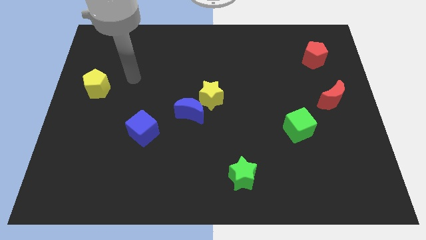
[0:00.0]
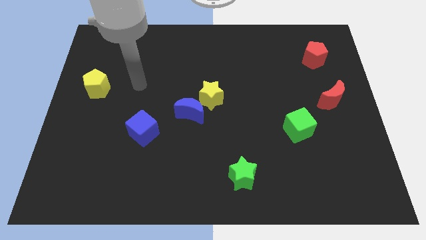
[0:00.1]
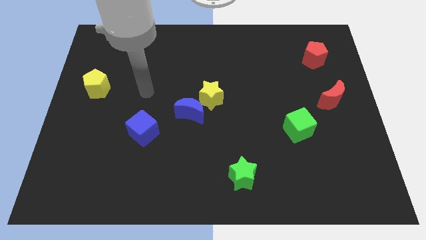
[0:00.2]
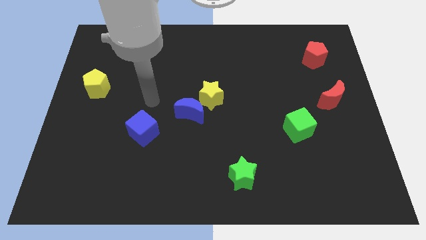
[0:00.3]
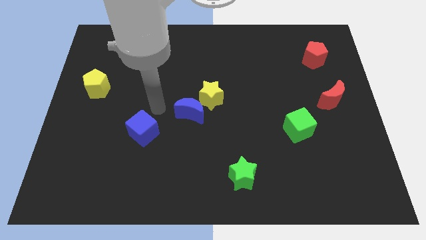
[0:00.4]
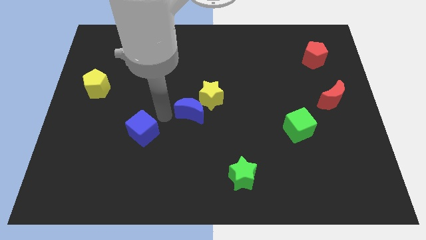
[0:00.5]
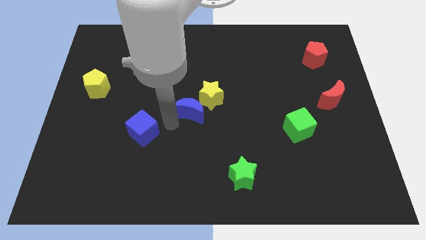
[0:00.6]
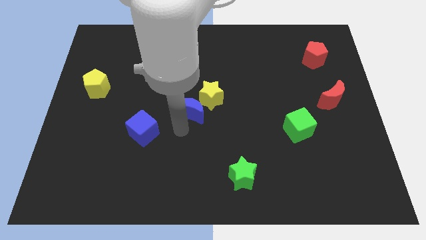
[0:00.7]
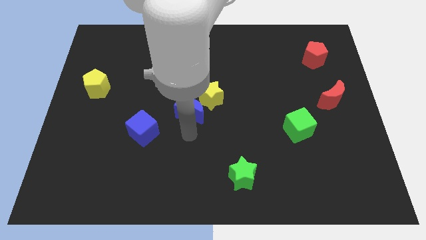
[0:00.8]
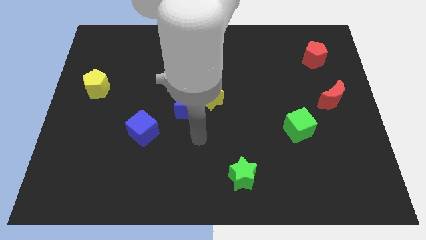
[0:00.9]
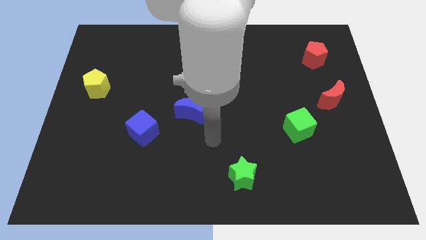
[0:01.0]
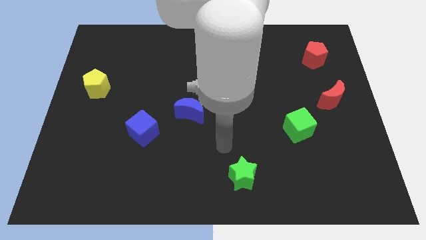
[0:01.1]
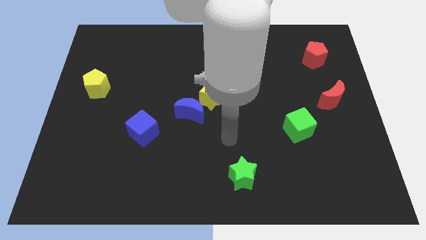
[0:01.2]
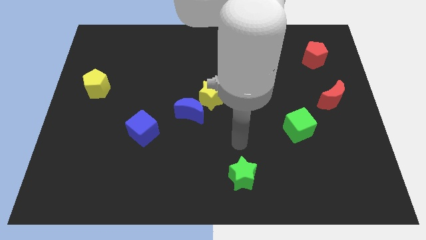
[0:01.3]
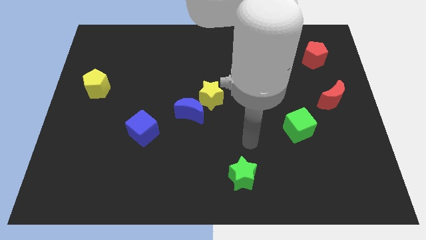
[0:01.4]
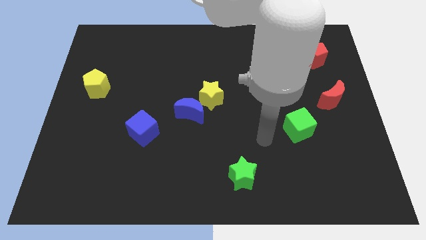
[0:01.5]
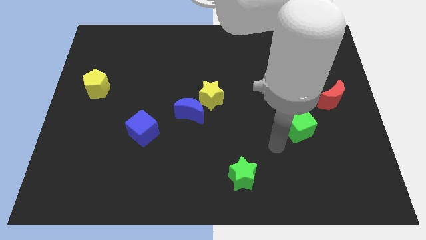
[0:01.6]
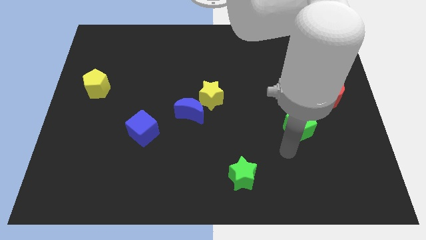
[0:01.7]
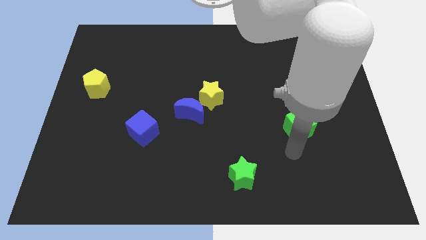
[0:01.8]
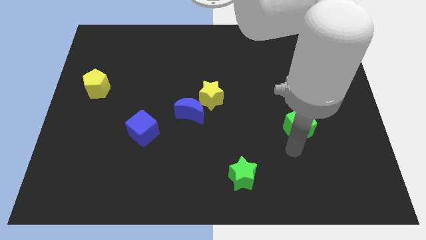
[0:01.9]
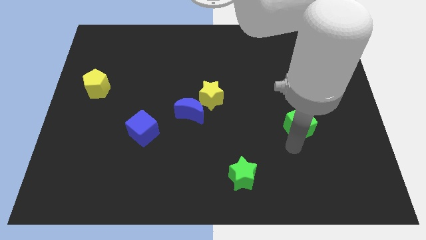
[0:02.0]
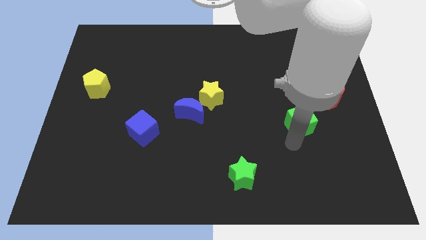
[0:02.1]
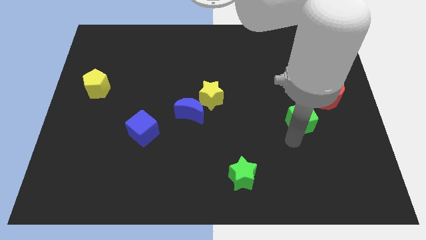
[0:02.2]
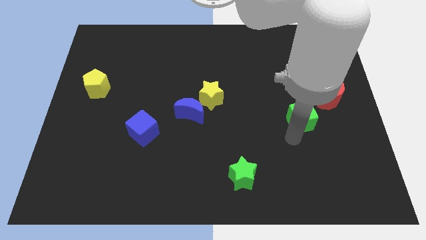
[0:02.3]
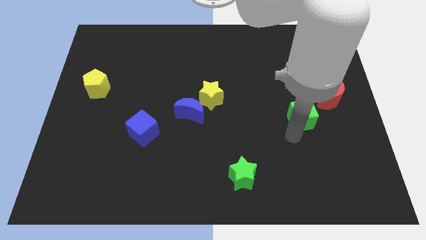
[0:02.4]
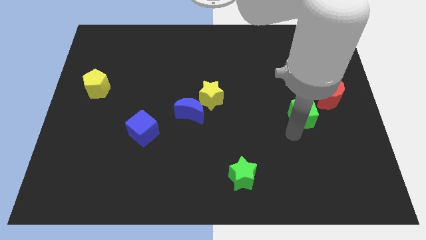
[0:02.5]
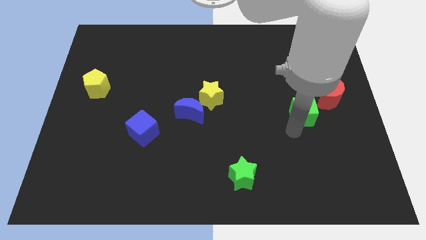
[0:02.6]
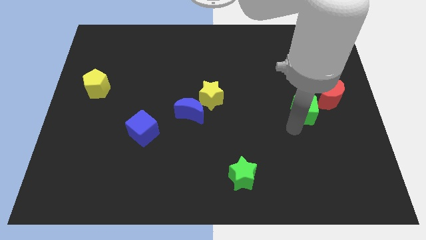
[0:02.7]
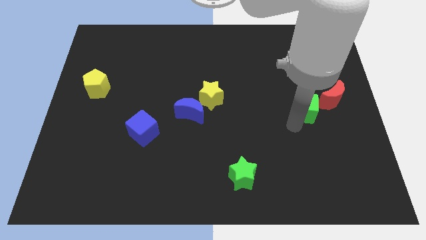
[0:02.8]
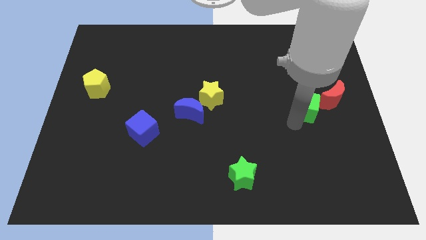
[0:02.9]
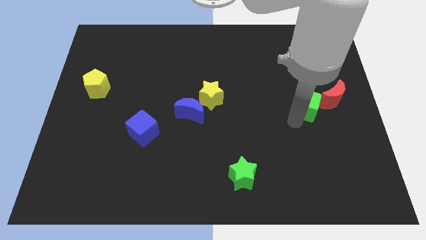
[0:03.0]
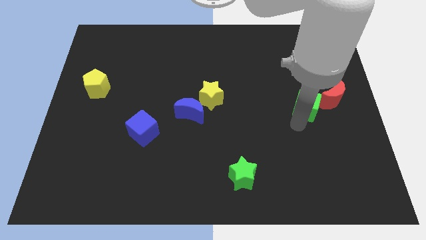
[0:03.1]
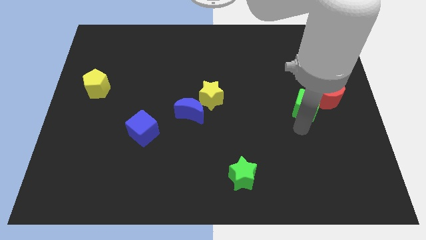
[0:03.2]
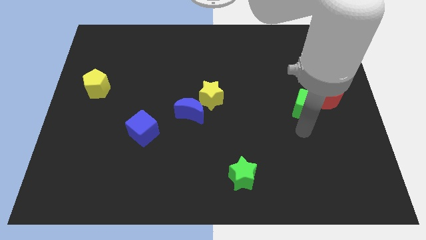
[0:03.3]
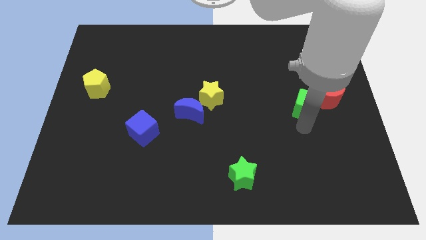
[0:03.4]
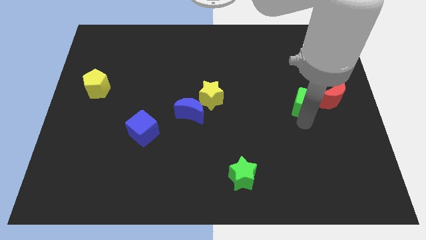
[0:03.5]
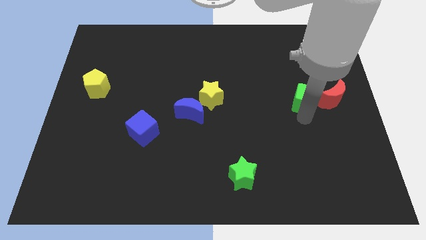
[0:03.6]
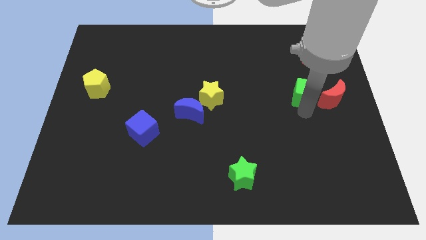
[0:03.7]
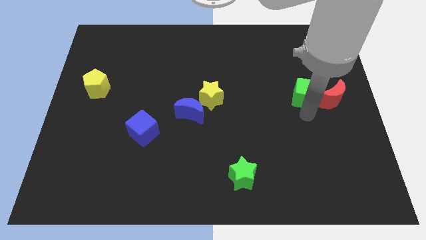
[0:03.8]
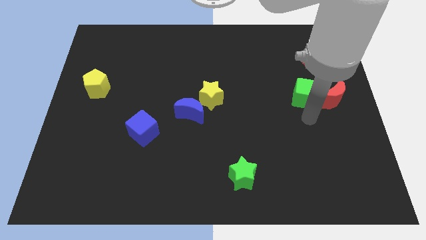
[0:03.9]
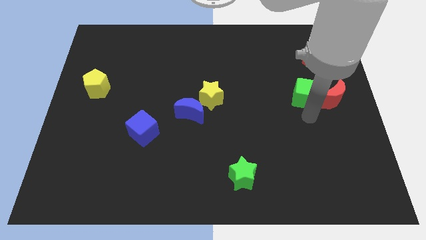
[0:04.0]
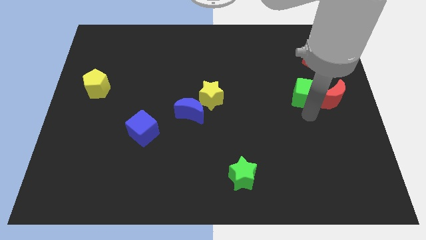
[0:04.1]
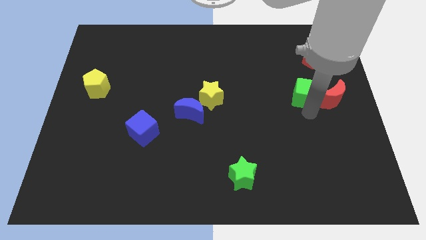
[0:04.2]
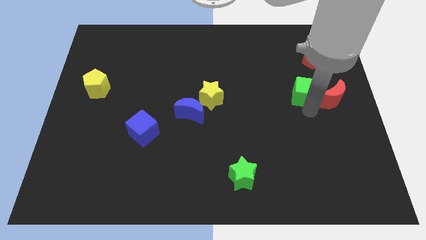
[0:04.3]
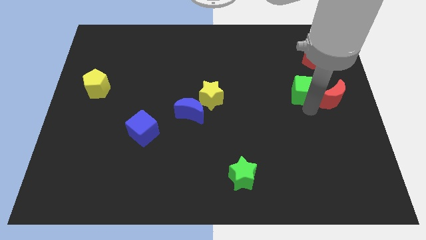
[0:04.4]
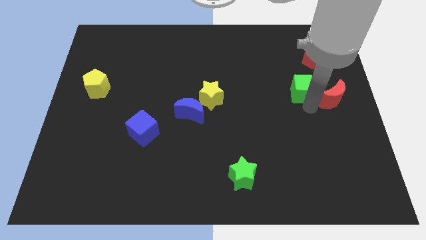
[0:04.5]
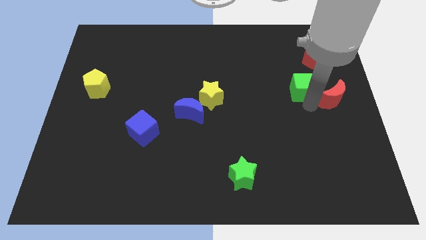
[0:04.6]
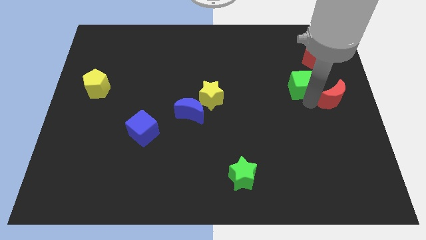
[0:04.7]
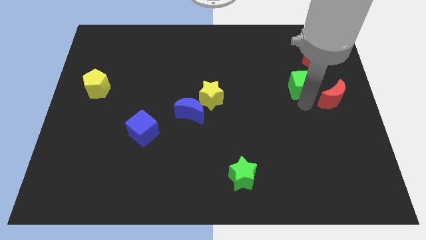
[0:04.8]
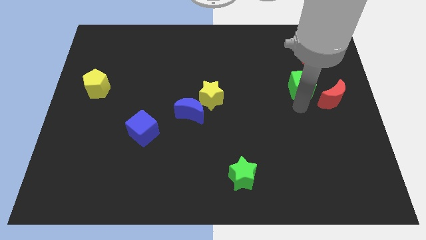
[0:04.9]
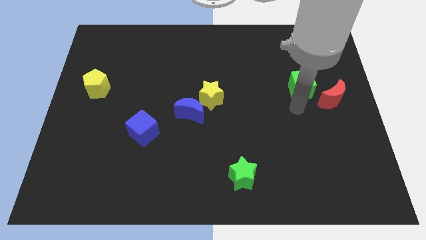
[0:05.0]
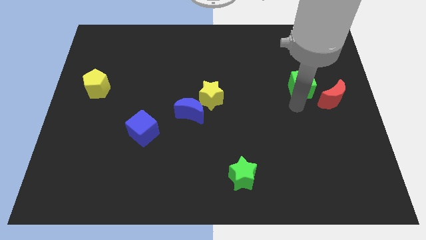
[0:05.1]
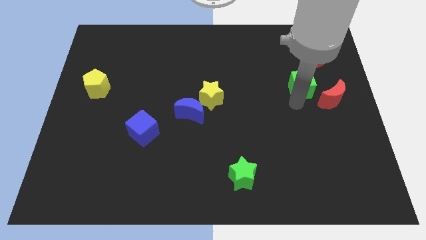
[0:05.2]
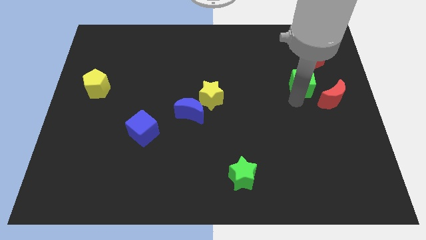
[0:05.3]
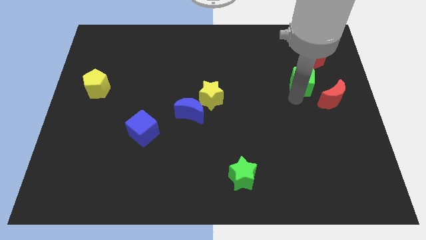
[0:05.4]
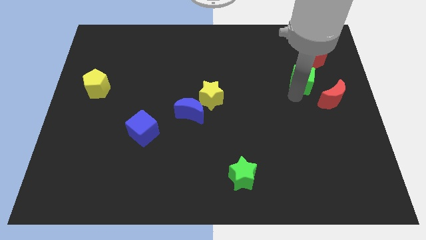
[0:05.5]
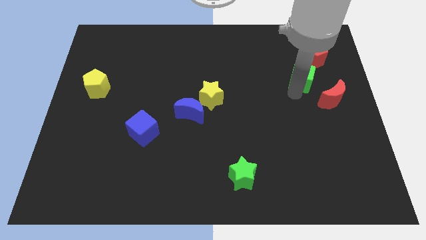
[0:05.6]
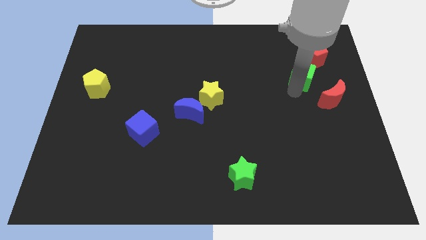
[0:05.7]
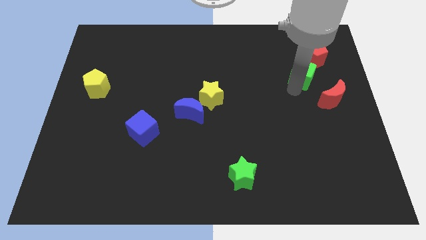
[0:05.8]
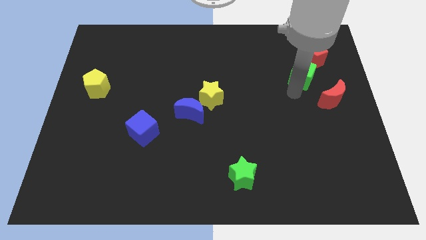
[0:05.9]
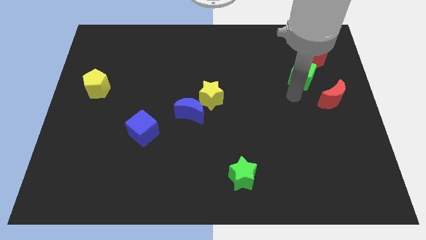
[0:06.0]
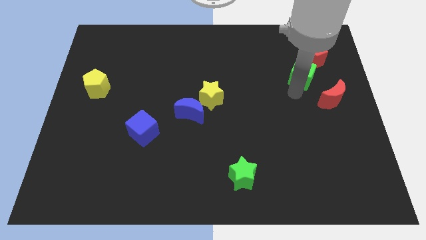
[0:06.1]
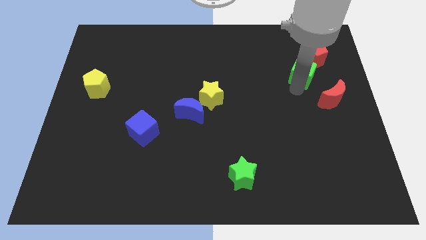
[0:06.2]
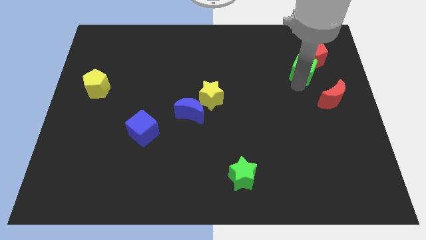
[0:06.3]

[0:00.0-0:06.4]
slide the green cube to the red pentagon

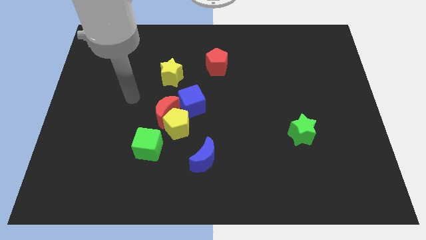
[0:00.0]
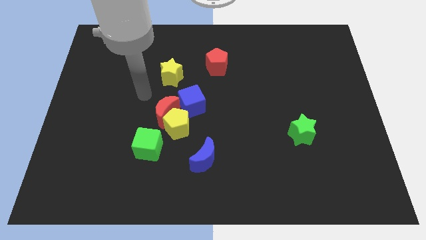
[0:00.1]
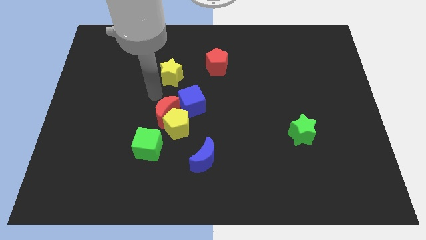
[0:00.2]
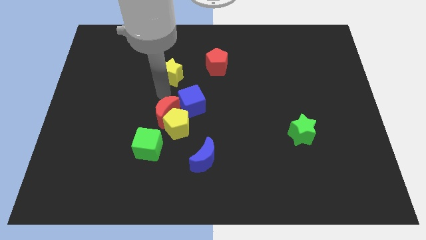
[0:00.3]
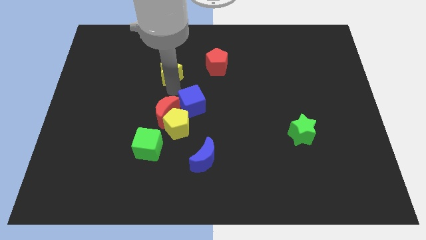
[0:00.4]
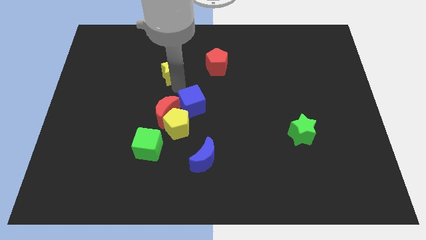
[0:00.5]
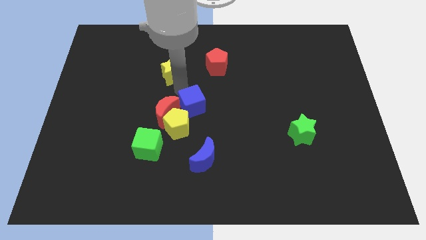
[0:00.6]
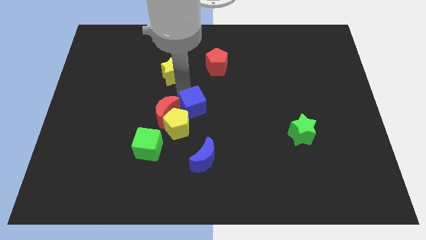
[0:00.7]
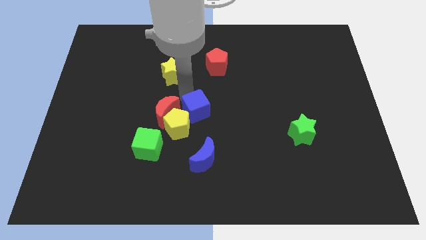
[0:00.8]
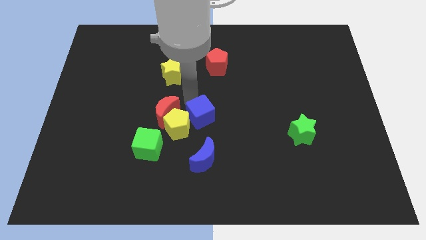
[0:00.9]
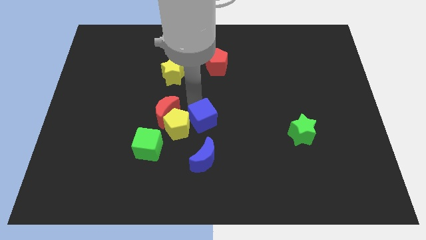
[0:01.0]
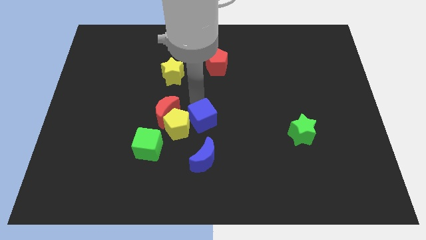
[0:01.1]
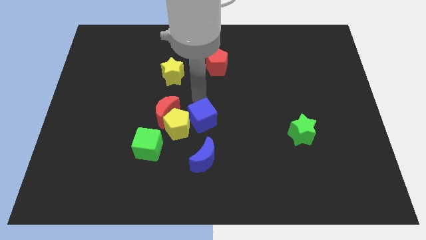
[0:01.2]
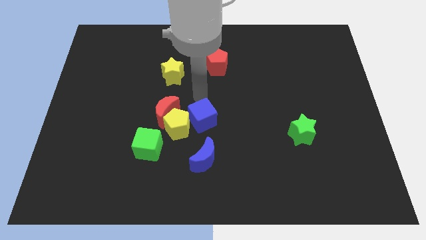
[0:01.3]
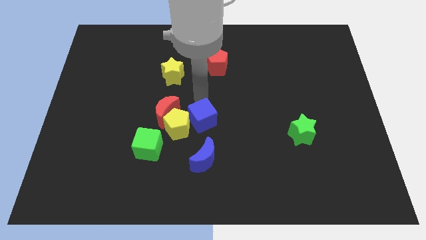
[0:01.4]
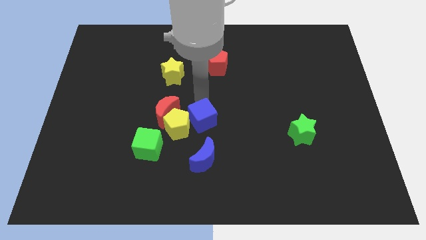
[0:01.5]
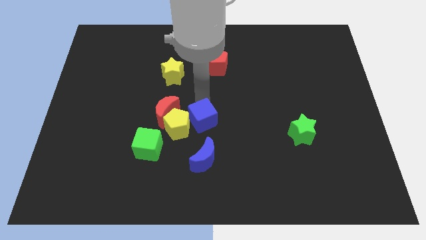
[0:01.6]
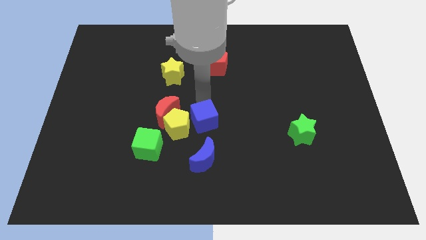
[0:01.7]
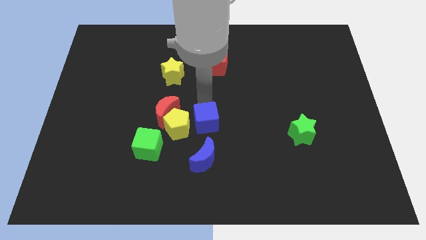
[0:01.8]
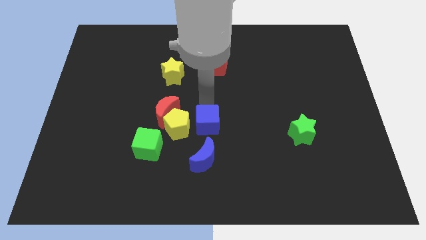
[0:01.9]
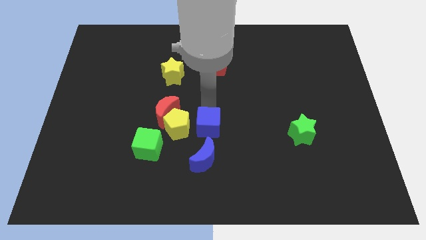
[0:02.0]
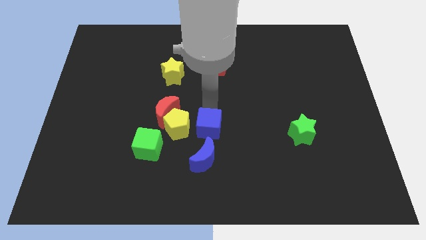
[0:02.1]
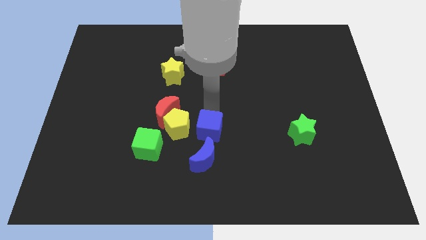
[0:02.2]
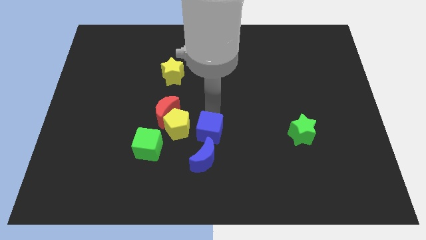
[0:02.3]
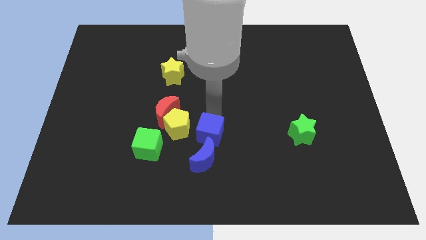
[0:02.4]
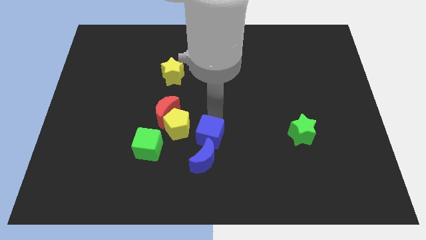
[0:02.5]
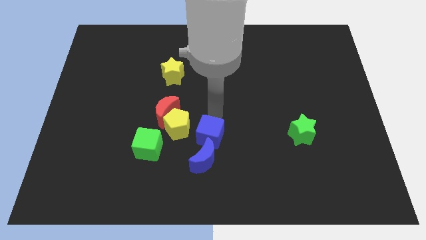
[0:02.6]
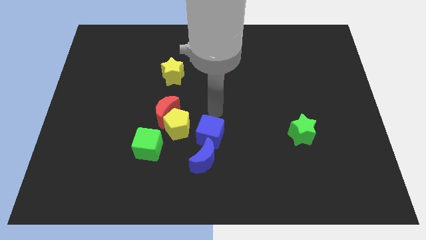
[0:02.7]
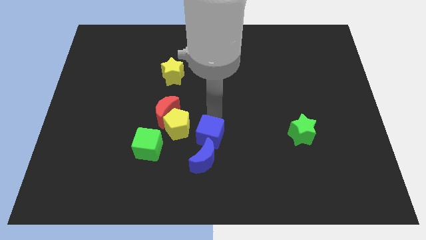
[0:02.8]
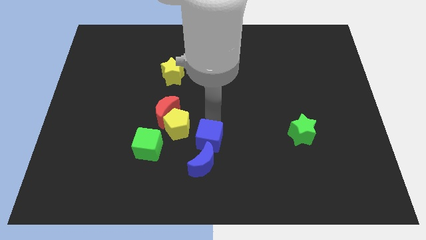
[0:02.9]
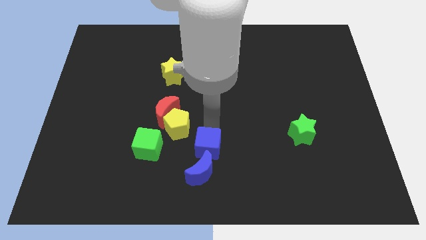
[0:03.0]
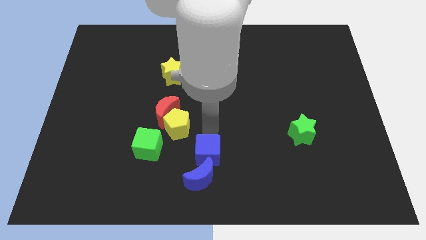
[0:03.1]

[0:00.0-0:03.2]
move the blue cube towards the blue moon
